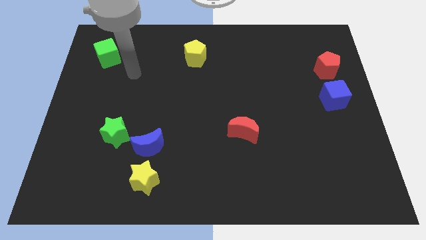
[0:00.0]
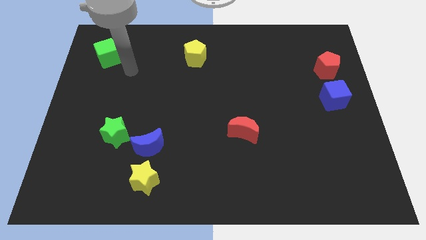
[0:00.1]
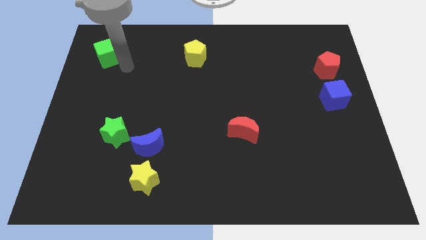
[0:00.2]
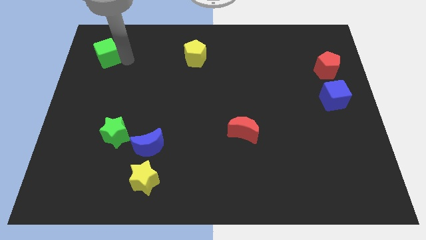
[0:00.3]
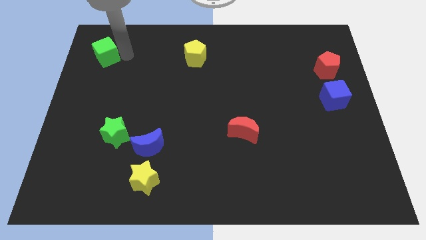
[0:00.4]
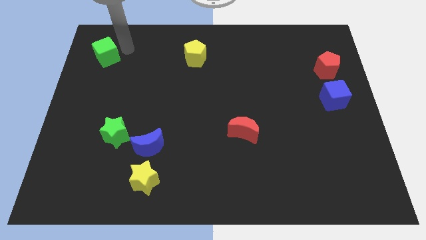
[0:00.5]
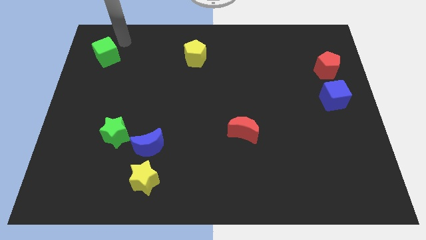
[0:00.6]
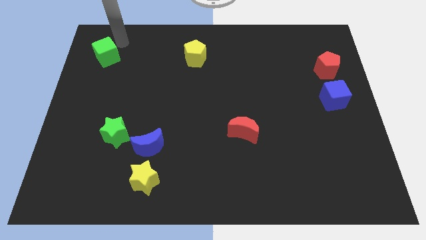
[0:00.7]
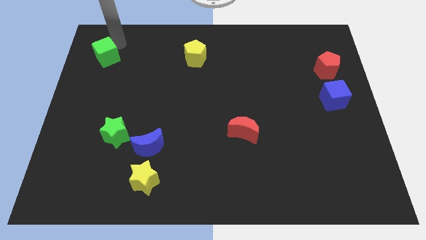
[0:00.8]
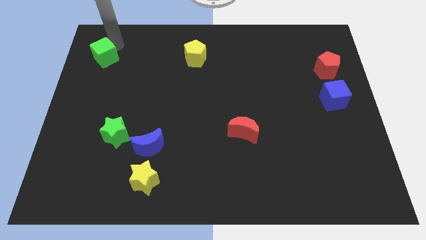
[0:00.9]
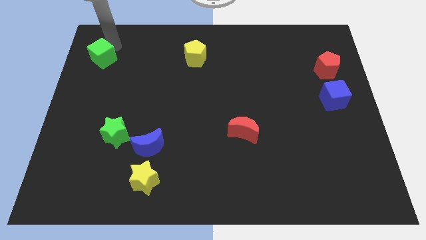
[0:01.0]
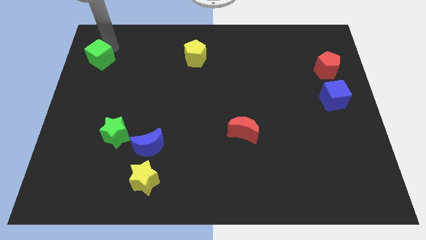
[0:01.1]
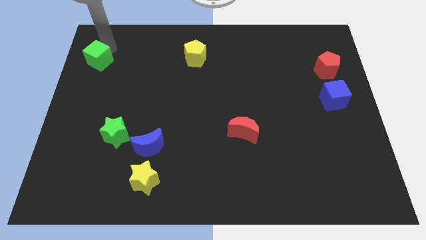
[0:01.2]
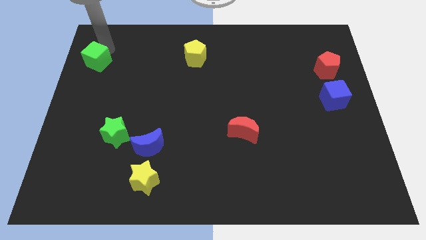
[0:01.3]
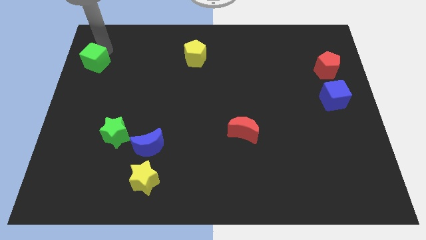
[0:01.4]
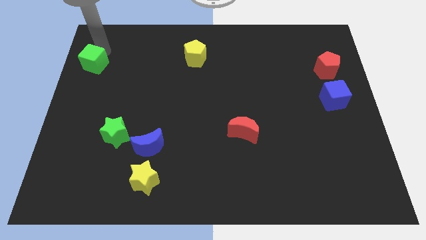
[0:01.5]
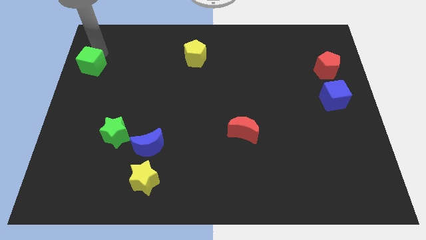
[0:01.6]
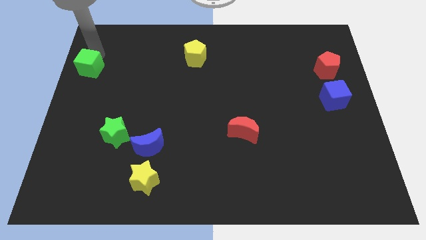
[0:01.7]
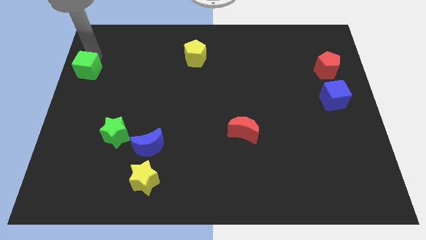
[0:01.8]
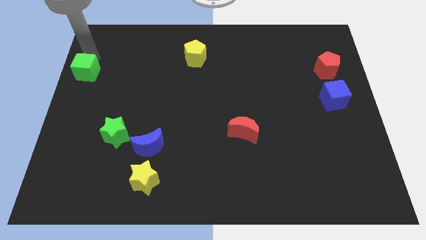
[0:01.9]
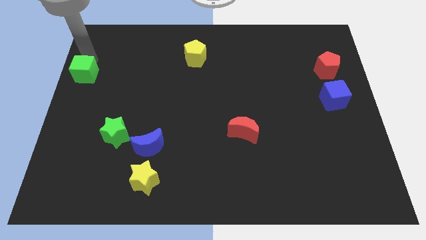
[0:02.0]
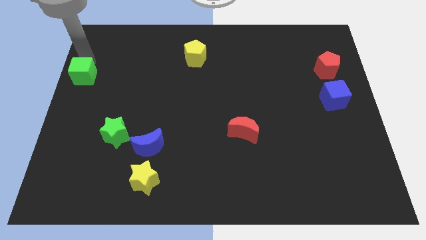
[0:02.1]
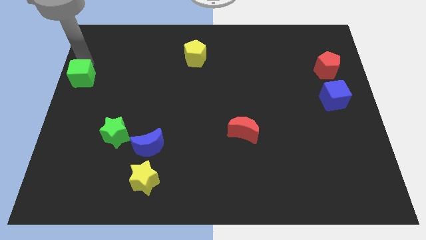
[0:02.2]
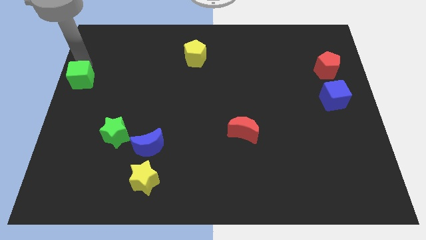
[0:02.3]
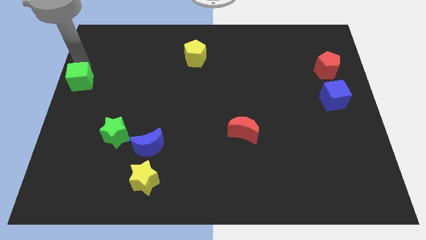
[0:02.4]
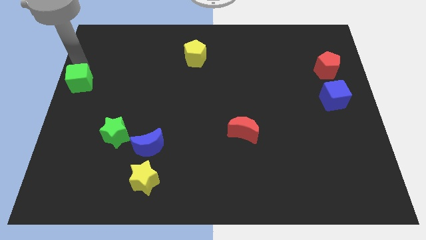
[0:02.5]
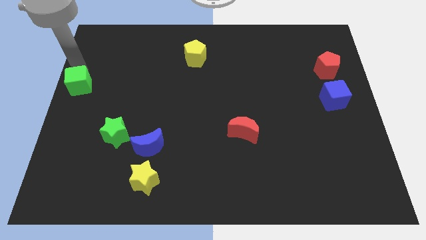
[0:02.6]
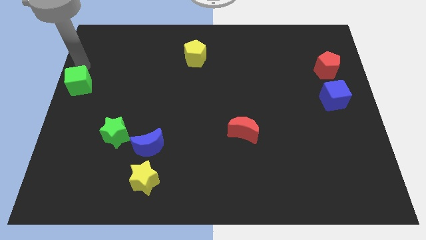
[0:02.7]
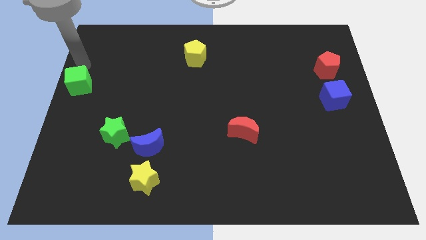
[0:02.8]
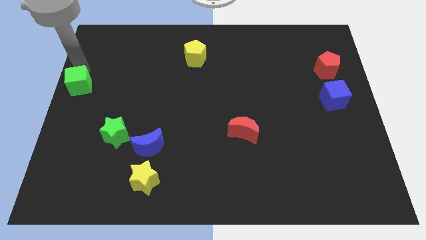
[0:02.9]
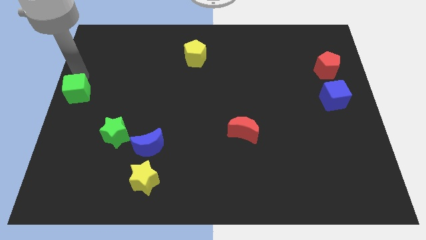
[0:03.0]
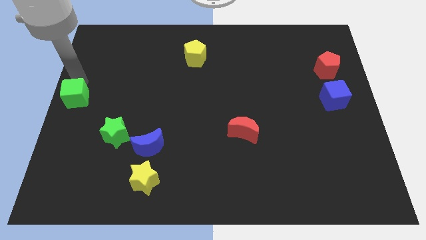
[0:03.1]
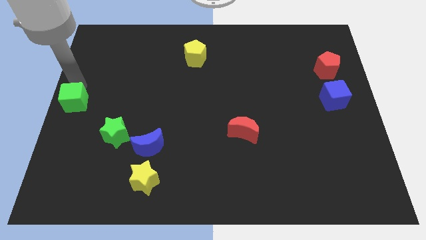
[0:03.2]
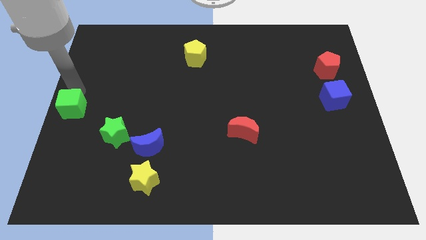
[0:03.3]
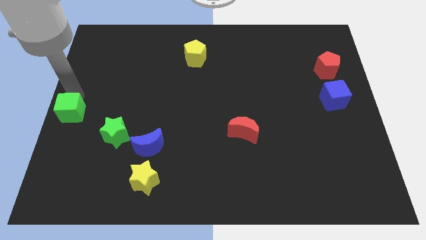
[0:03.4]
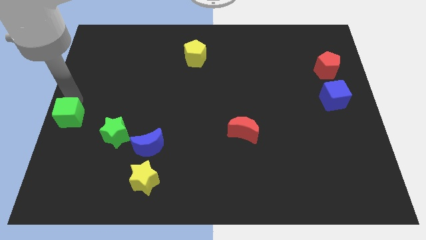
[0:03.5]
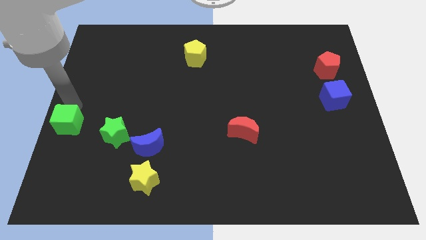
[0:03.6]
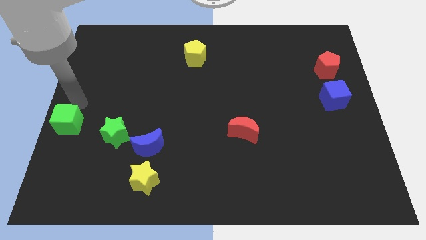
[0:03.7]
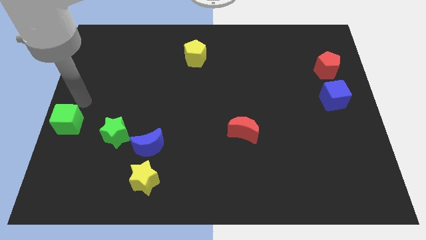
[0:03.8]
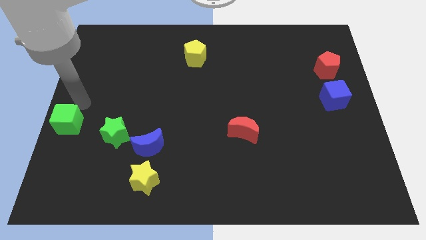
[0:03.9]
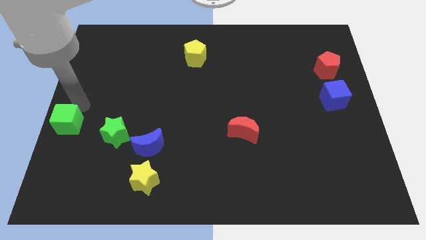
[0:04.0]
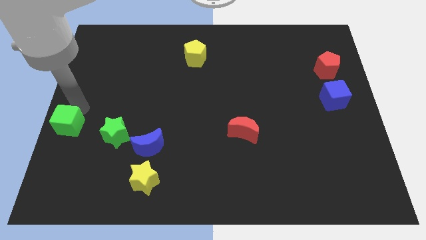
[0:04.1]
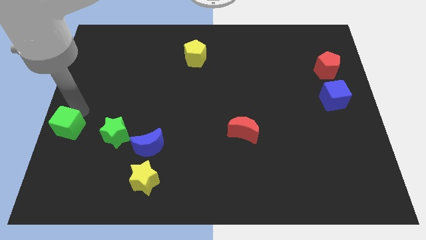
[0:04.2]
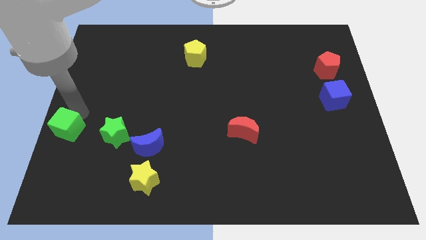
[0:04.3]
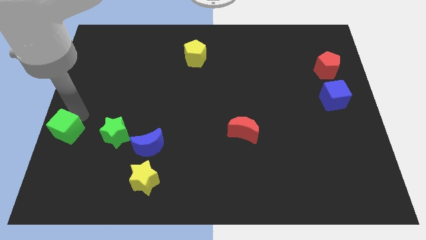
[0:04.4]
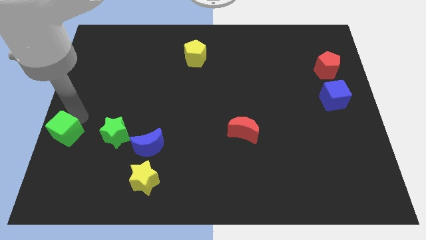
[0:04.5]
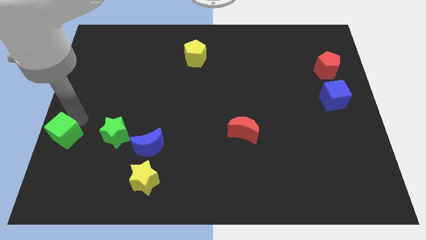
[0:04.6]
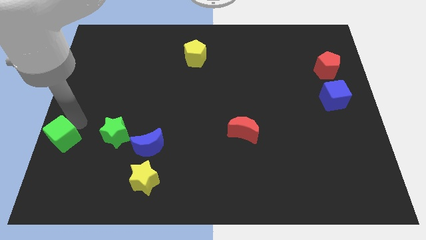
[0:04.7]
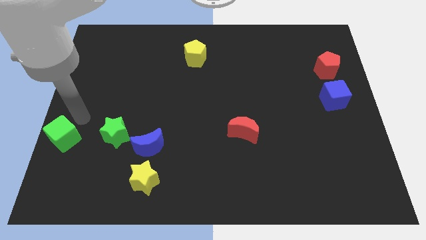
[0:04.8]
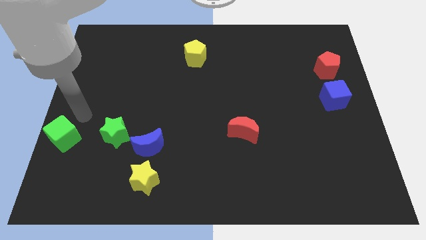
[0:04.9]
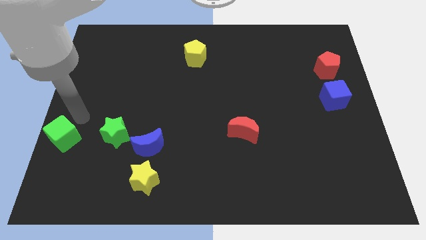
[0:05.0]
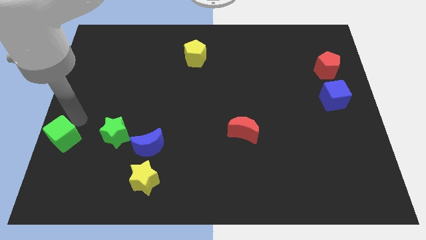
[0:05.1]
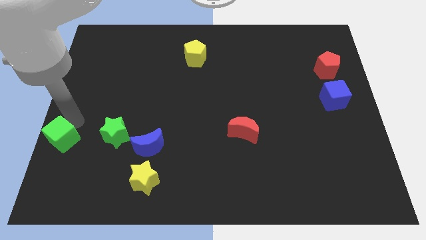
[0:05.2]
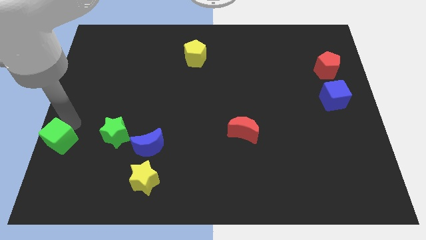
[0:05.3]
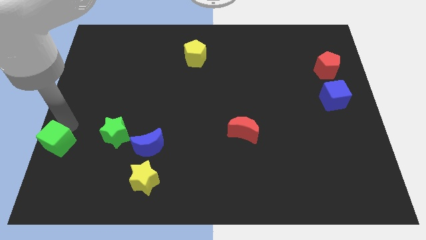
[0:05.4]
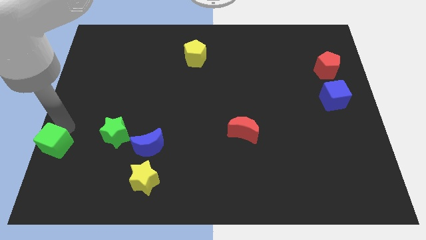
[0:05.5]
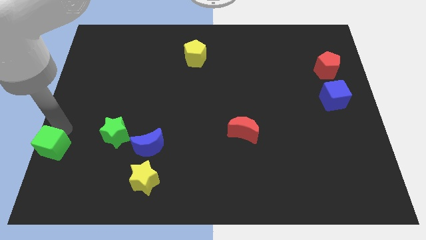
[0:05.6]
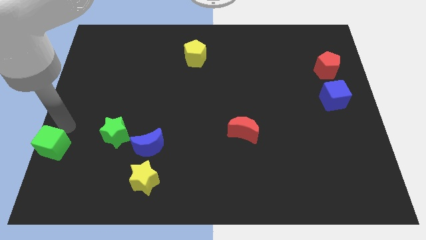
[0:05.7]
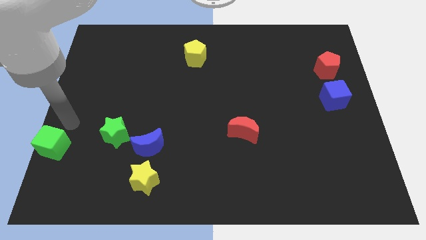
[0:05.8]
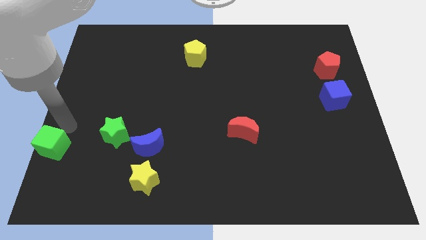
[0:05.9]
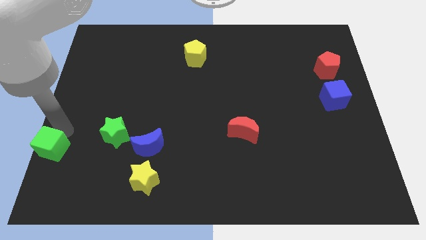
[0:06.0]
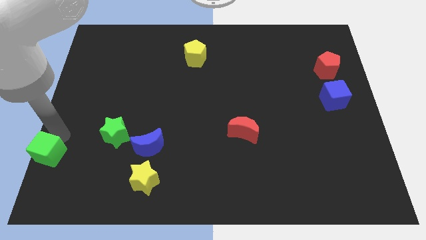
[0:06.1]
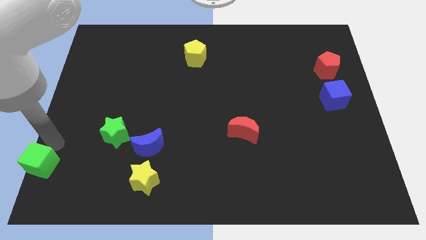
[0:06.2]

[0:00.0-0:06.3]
put the green cube to the bottom left of the board
